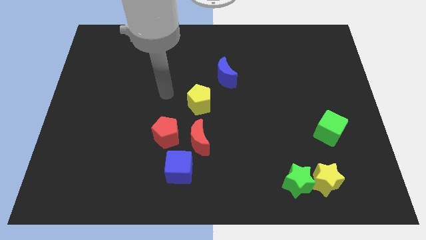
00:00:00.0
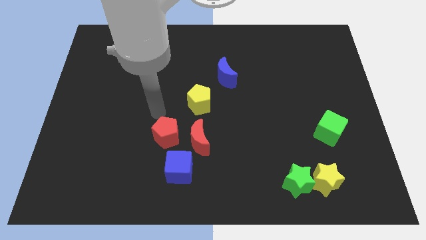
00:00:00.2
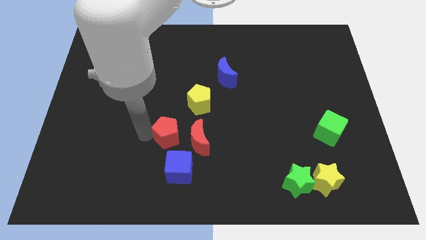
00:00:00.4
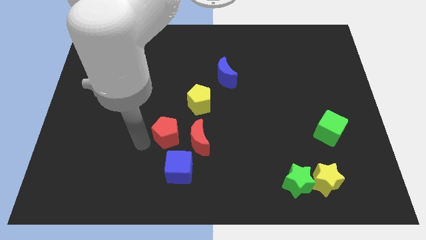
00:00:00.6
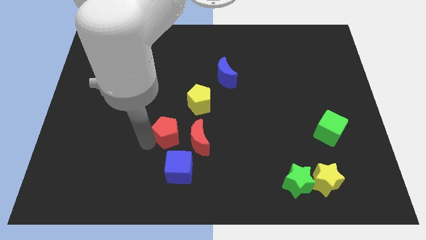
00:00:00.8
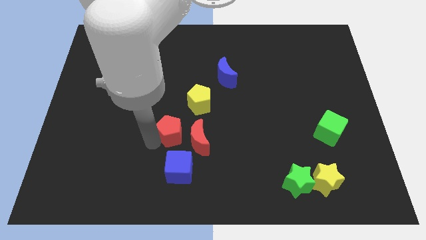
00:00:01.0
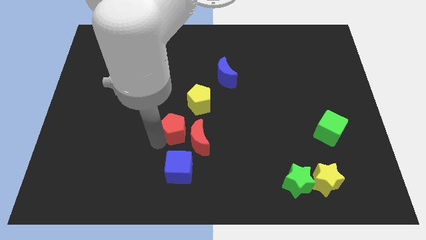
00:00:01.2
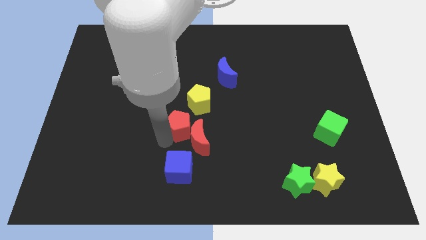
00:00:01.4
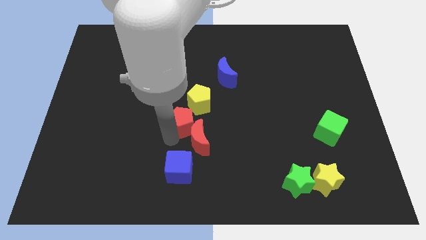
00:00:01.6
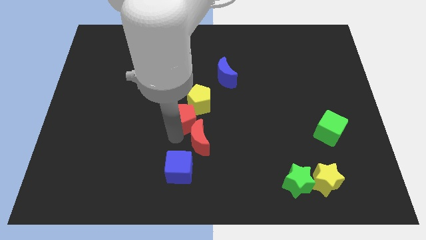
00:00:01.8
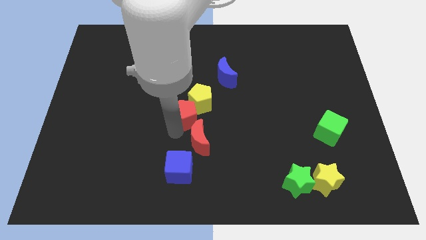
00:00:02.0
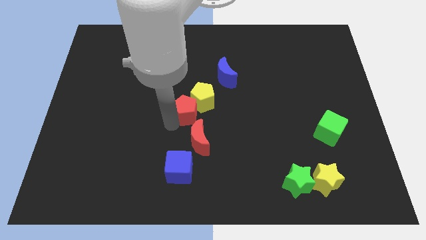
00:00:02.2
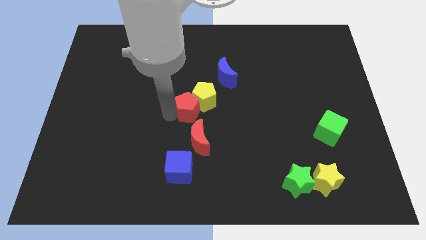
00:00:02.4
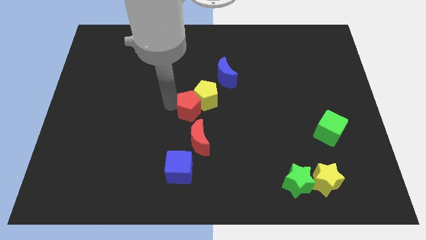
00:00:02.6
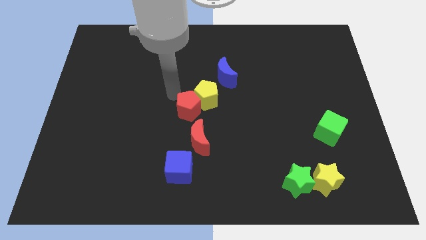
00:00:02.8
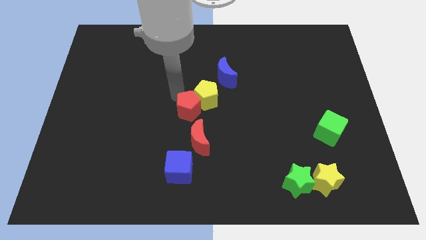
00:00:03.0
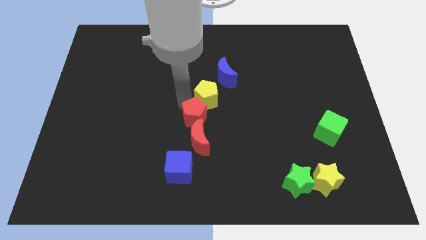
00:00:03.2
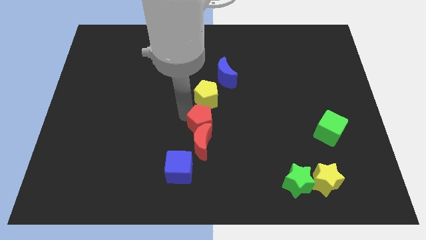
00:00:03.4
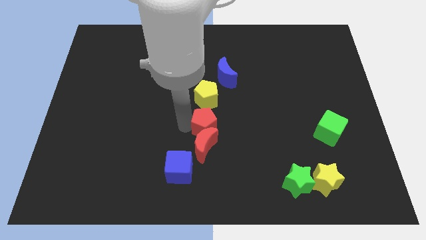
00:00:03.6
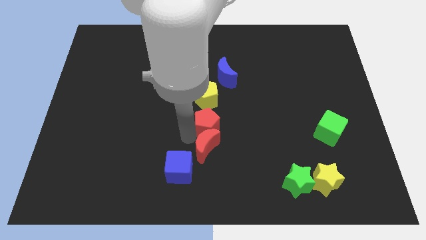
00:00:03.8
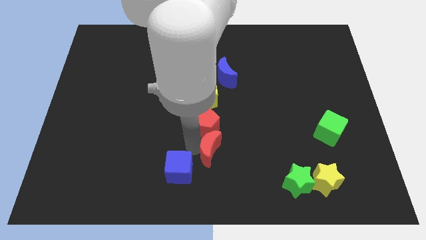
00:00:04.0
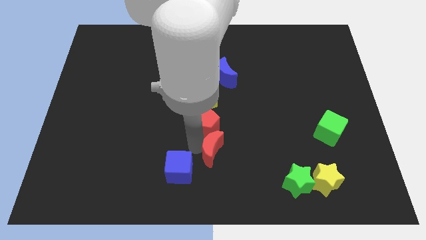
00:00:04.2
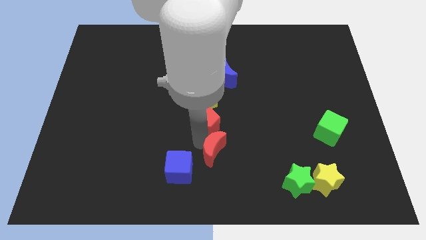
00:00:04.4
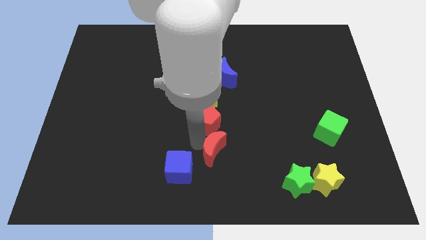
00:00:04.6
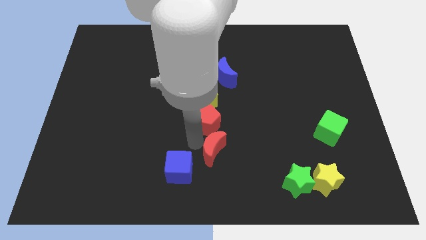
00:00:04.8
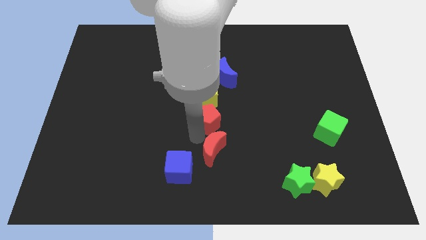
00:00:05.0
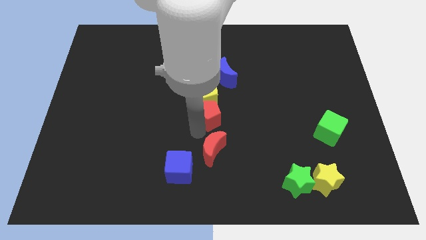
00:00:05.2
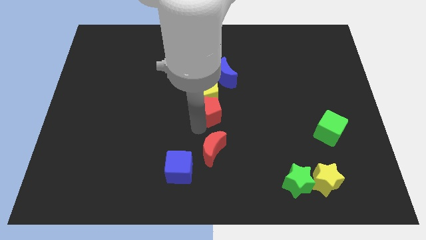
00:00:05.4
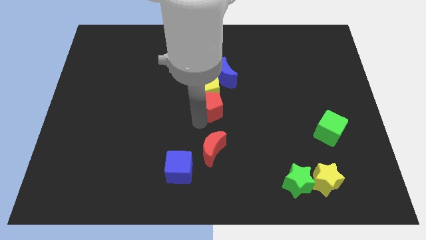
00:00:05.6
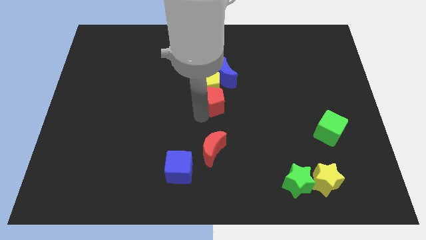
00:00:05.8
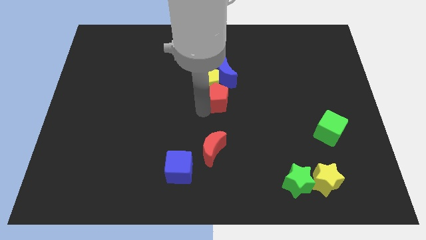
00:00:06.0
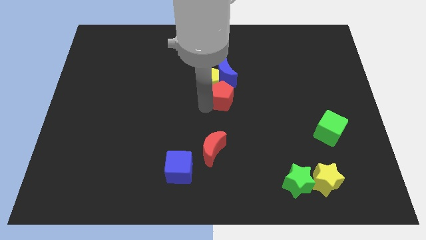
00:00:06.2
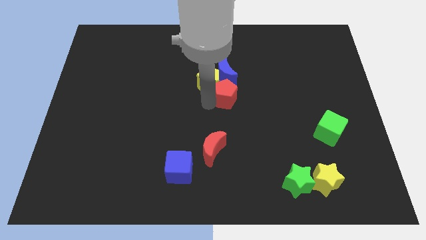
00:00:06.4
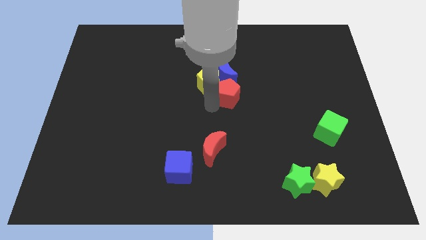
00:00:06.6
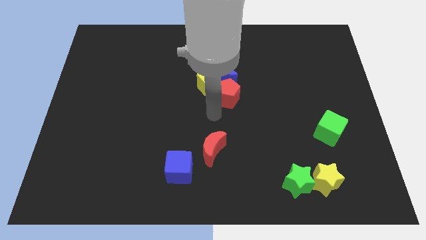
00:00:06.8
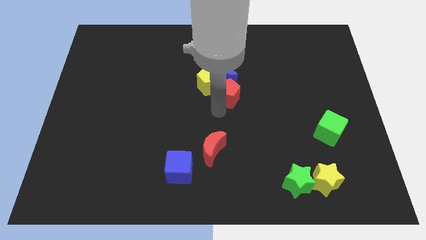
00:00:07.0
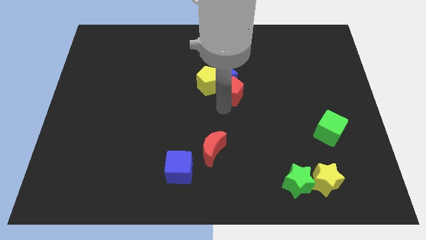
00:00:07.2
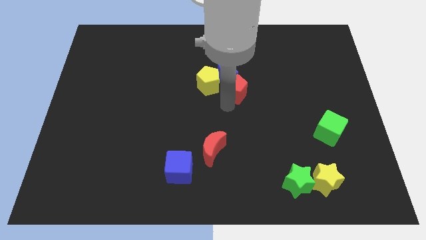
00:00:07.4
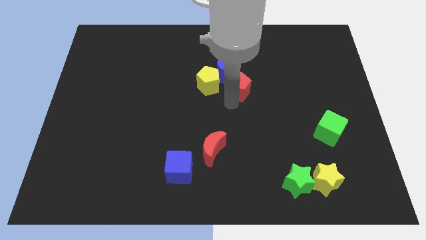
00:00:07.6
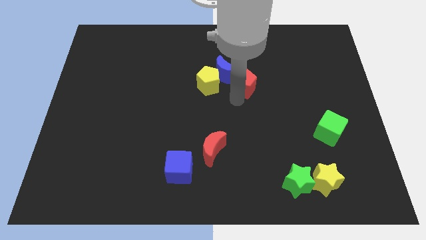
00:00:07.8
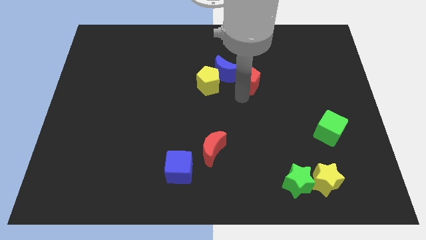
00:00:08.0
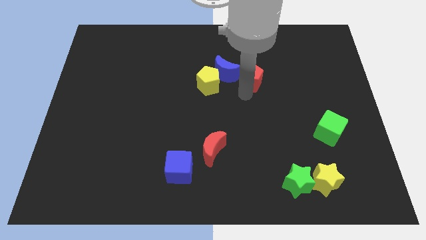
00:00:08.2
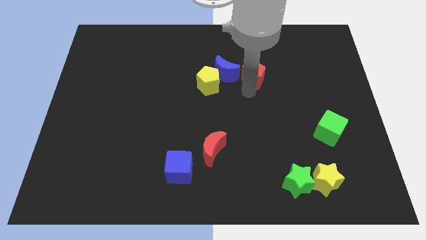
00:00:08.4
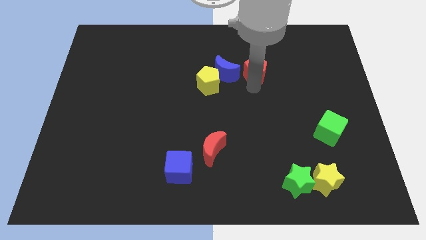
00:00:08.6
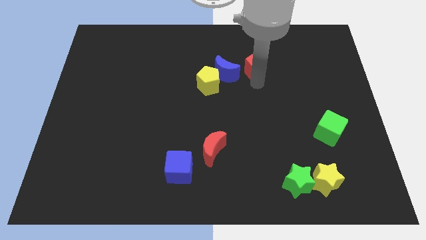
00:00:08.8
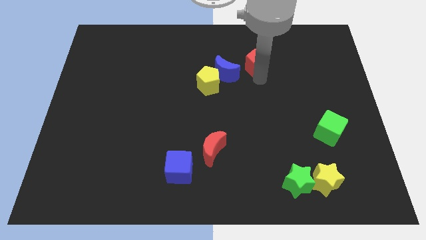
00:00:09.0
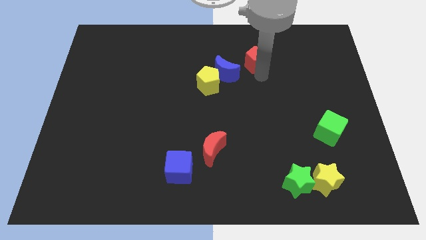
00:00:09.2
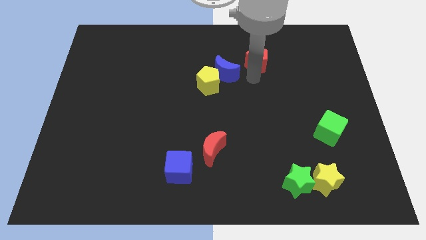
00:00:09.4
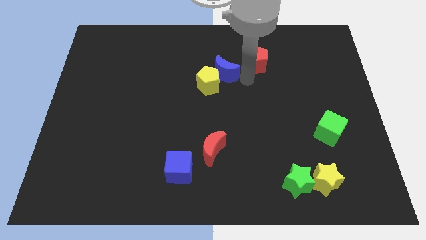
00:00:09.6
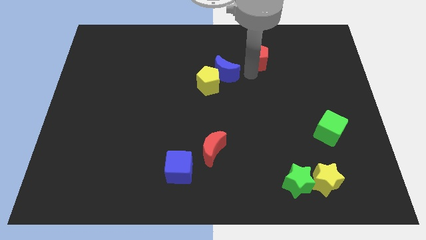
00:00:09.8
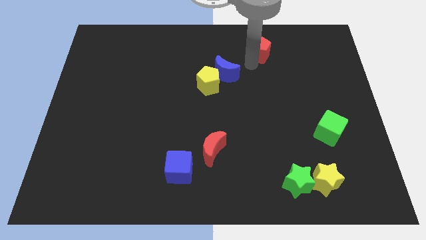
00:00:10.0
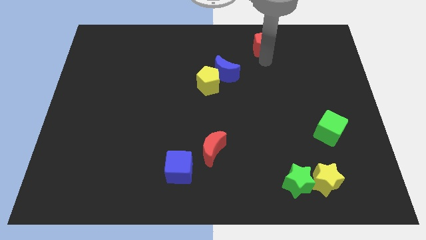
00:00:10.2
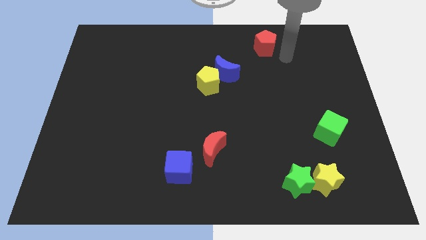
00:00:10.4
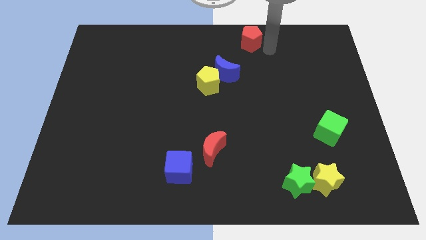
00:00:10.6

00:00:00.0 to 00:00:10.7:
push the red pentagon to the top

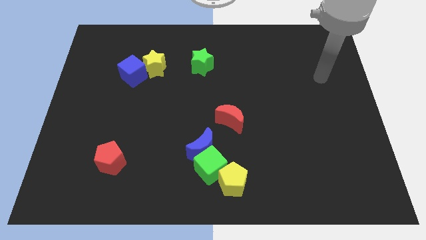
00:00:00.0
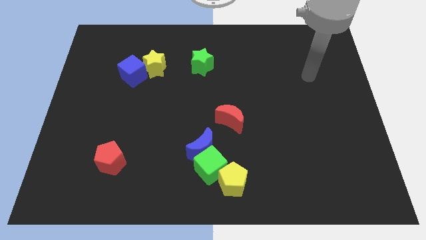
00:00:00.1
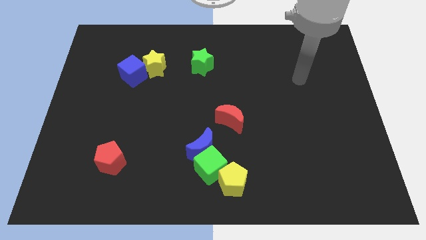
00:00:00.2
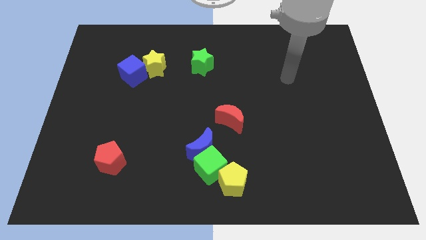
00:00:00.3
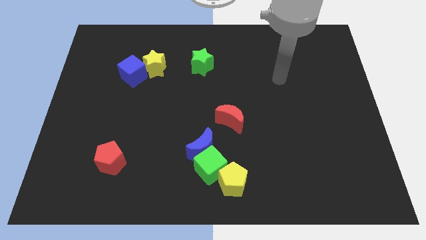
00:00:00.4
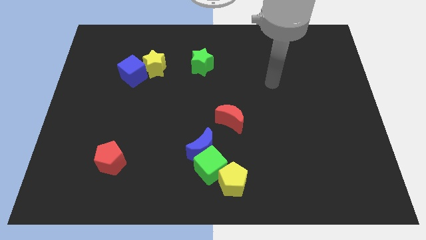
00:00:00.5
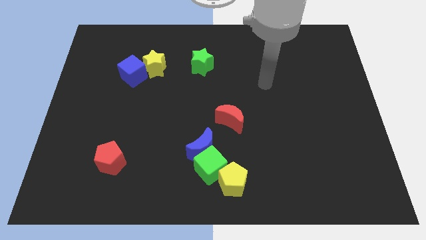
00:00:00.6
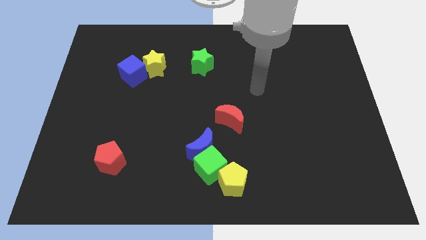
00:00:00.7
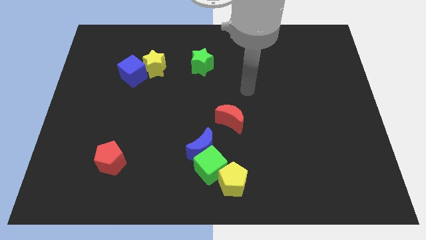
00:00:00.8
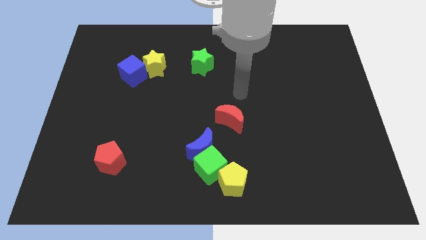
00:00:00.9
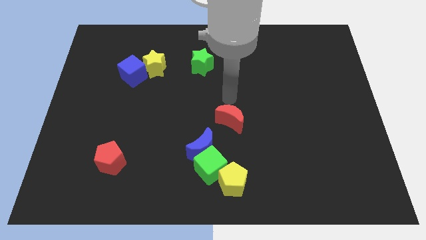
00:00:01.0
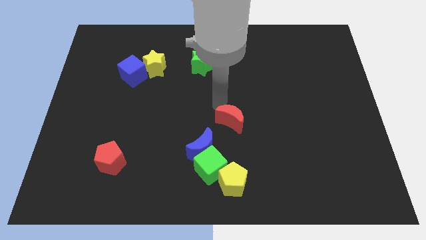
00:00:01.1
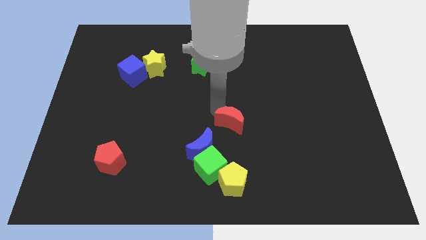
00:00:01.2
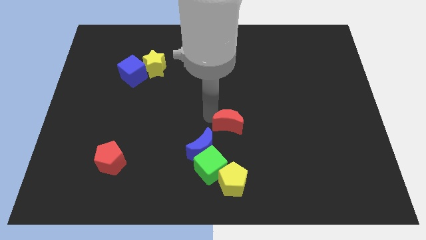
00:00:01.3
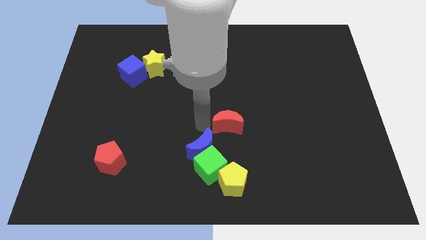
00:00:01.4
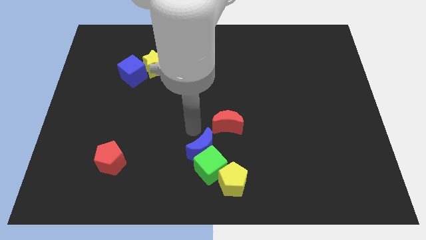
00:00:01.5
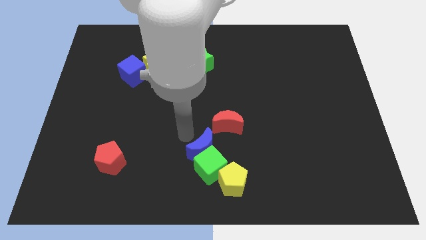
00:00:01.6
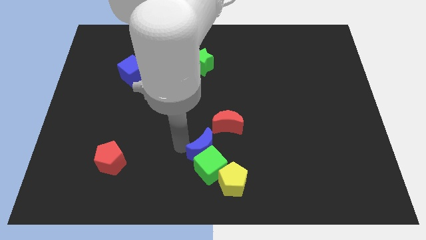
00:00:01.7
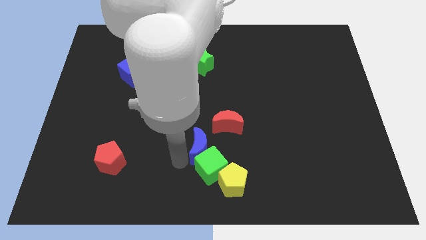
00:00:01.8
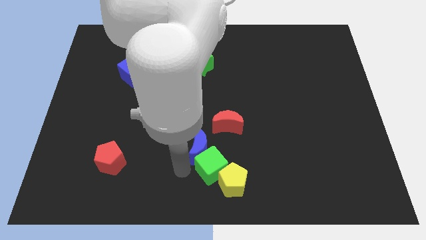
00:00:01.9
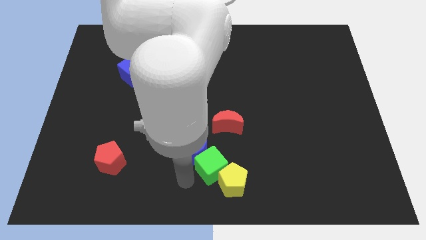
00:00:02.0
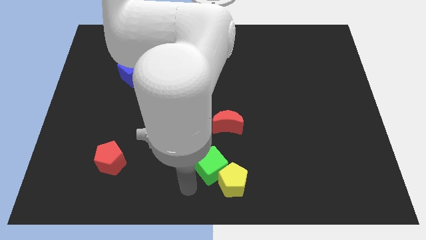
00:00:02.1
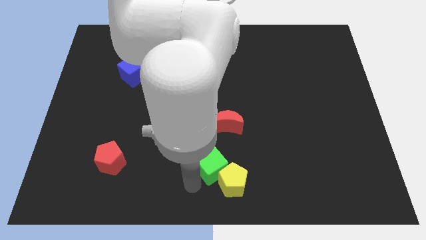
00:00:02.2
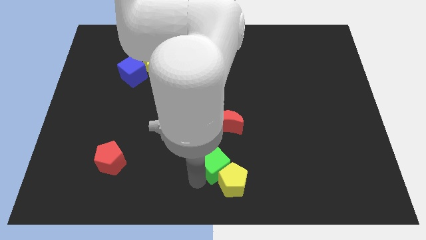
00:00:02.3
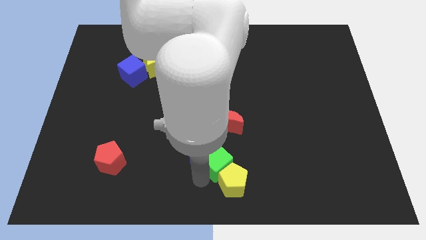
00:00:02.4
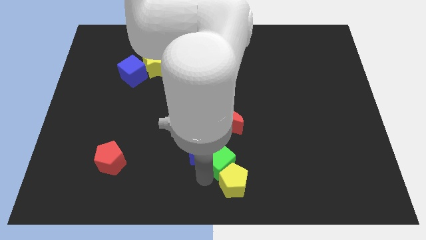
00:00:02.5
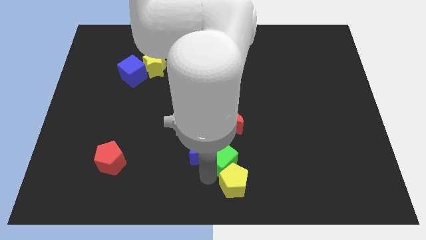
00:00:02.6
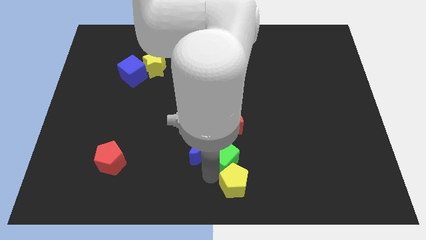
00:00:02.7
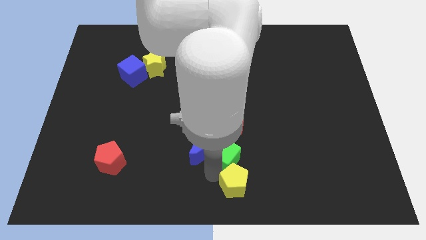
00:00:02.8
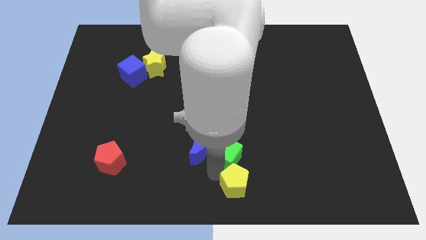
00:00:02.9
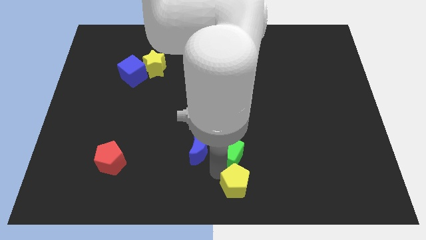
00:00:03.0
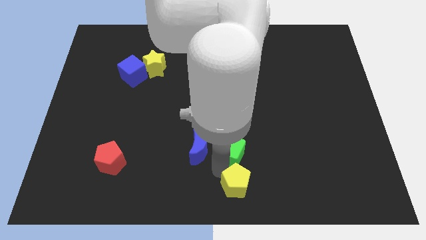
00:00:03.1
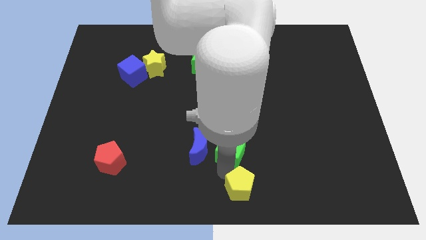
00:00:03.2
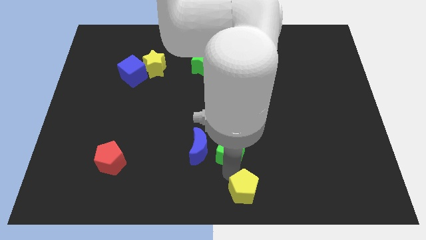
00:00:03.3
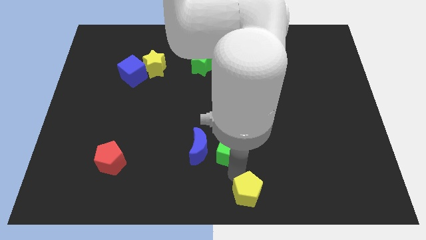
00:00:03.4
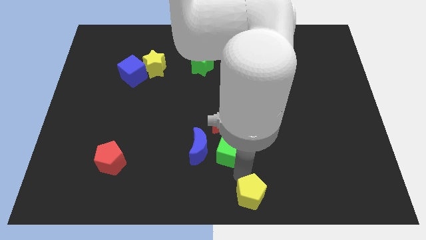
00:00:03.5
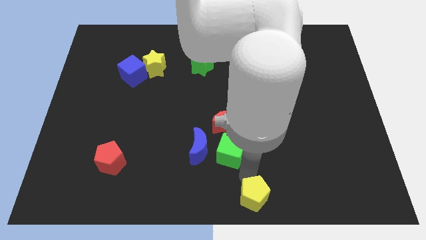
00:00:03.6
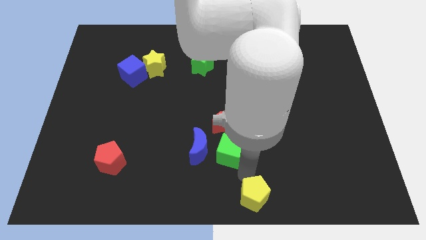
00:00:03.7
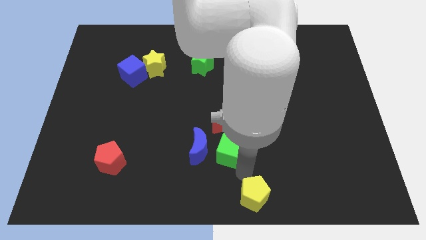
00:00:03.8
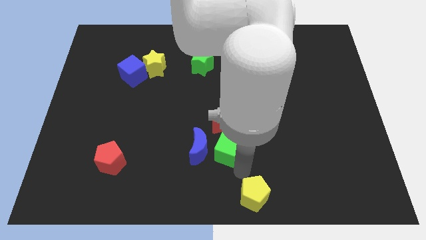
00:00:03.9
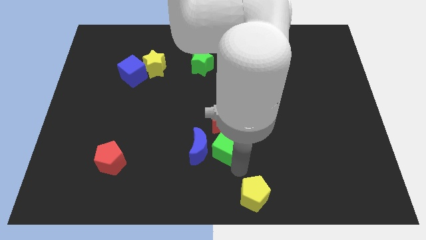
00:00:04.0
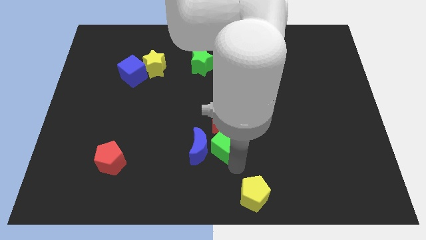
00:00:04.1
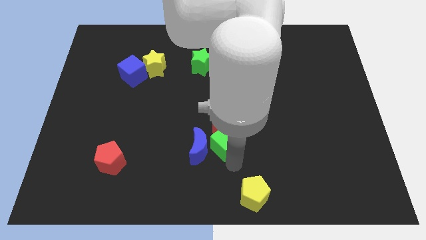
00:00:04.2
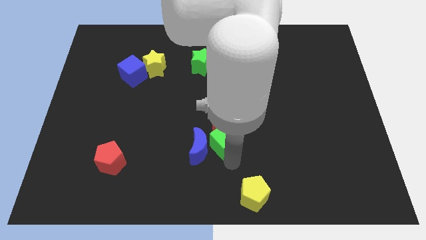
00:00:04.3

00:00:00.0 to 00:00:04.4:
put the green cube to the middle
